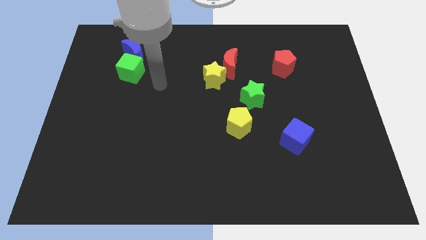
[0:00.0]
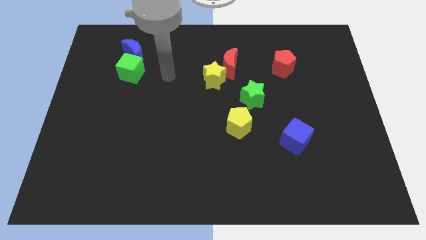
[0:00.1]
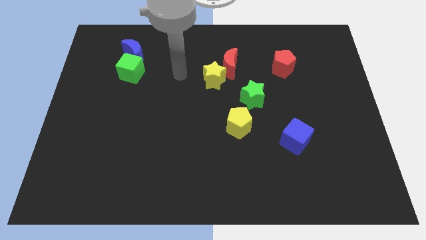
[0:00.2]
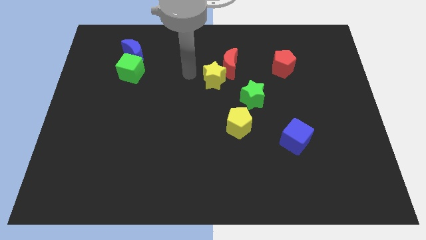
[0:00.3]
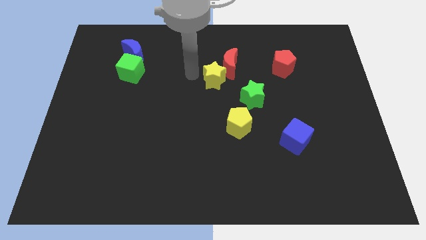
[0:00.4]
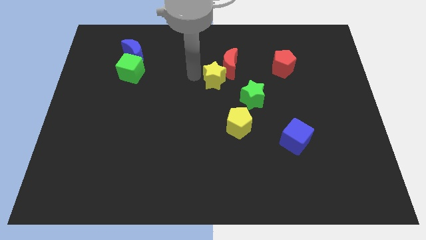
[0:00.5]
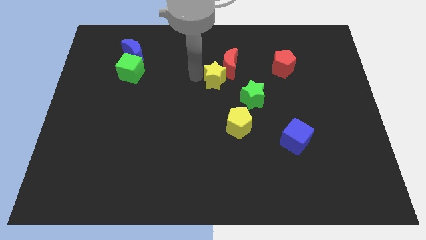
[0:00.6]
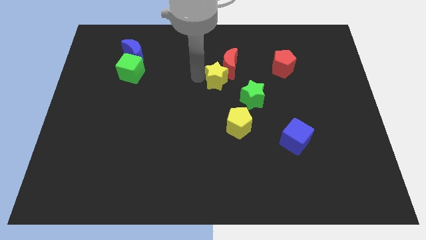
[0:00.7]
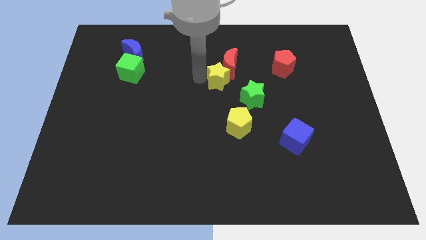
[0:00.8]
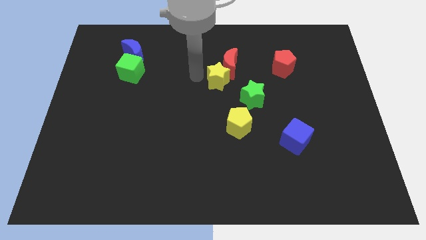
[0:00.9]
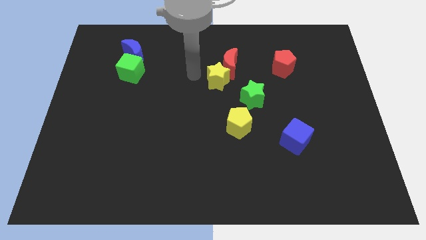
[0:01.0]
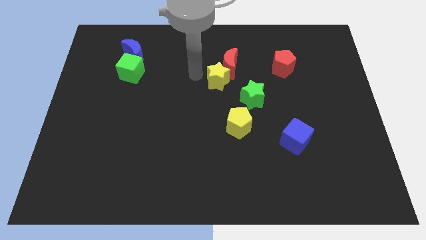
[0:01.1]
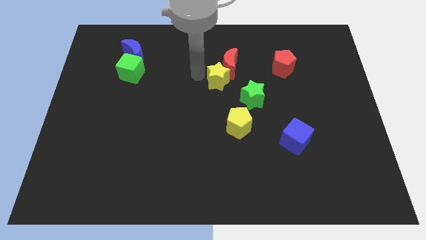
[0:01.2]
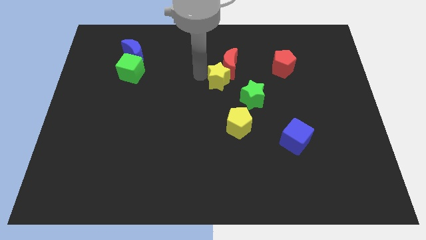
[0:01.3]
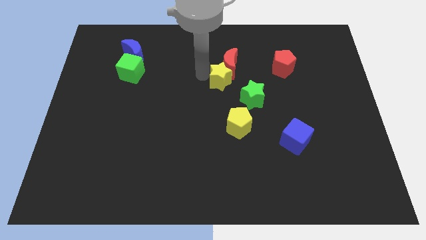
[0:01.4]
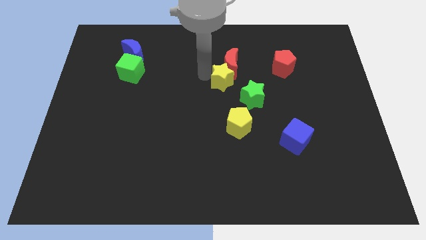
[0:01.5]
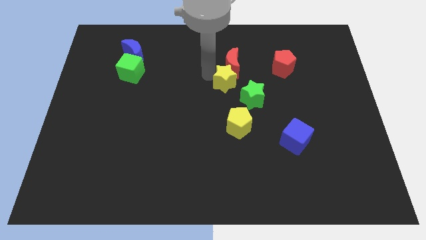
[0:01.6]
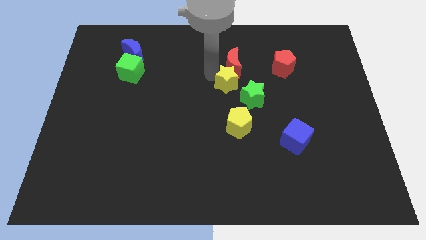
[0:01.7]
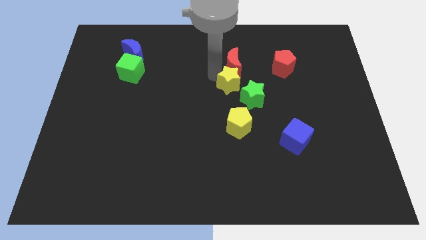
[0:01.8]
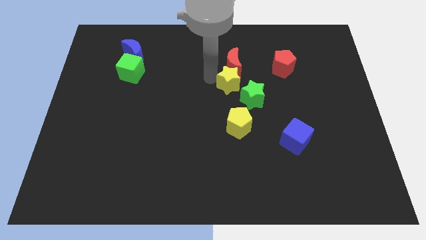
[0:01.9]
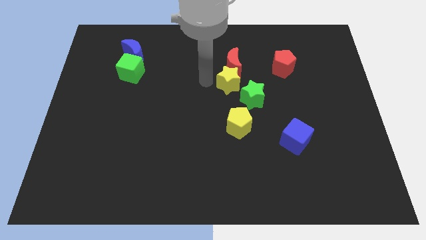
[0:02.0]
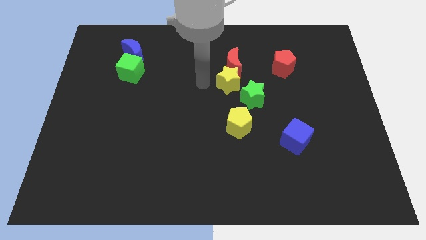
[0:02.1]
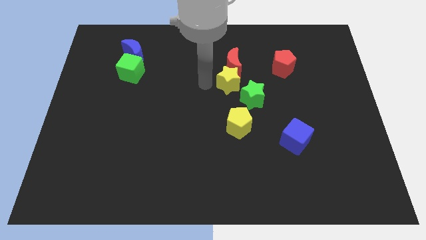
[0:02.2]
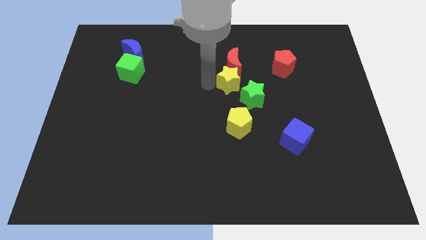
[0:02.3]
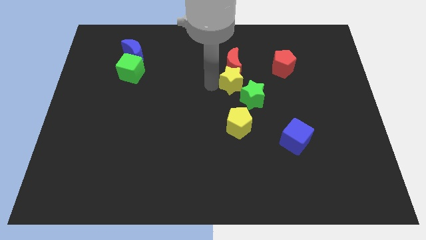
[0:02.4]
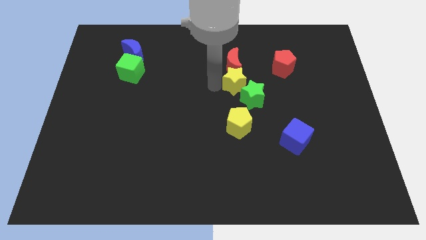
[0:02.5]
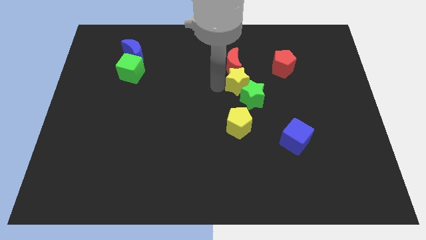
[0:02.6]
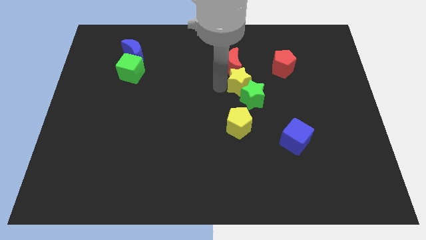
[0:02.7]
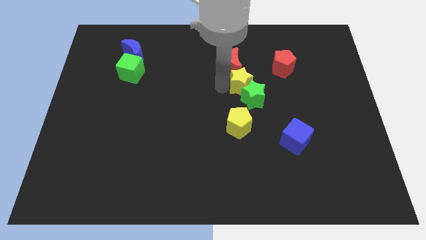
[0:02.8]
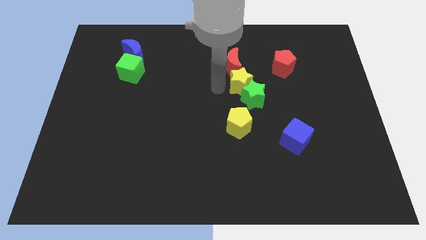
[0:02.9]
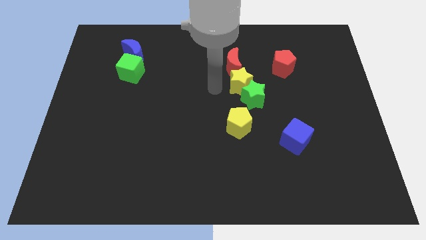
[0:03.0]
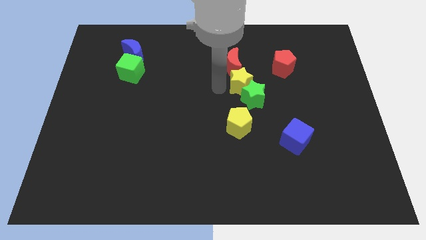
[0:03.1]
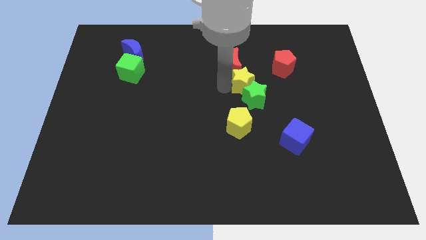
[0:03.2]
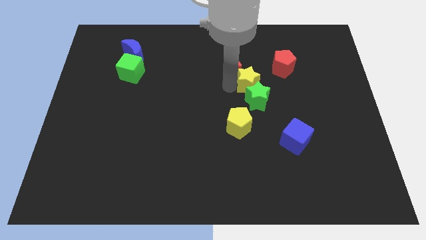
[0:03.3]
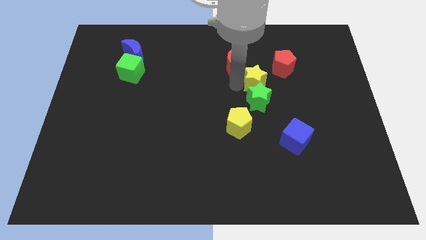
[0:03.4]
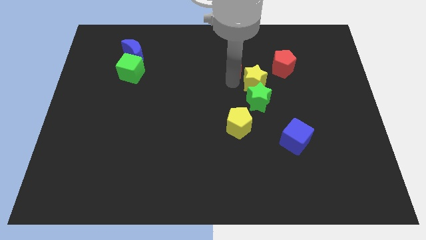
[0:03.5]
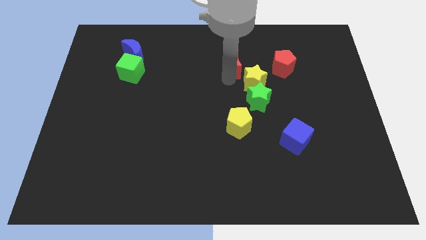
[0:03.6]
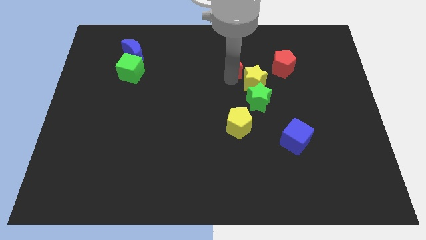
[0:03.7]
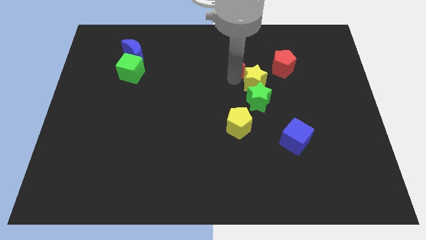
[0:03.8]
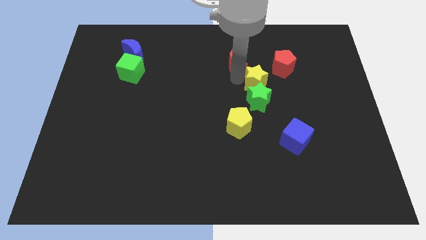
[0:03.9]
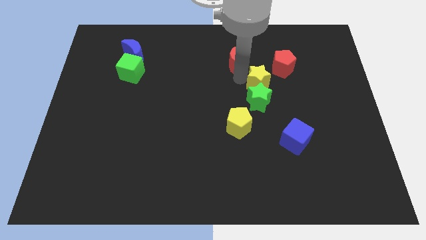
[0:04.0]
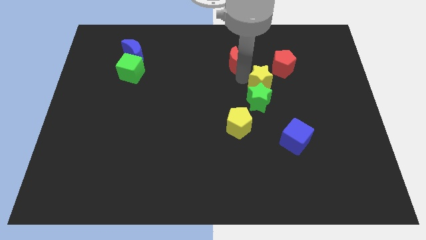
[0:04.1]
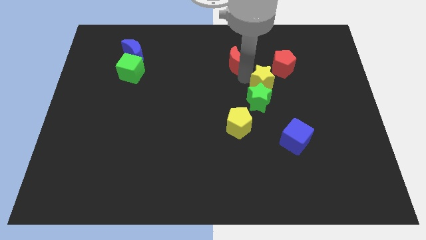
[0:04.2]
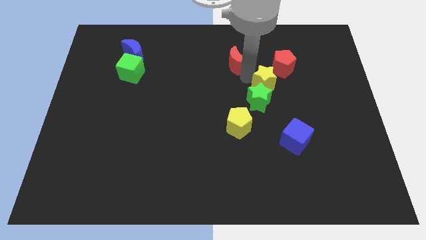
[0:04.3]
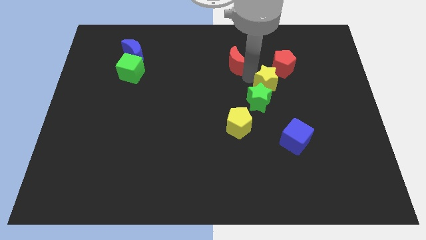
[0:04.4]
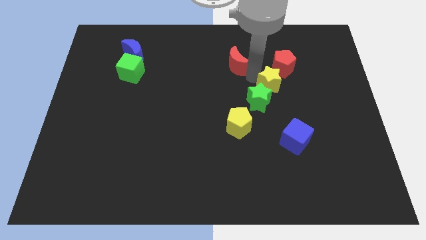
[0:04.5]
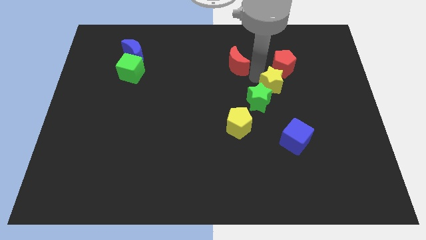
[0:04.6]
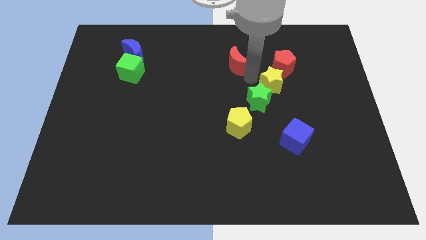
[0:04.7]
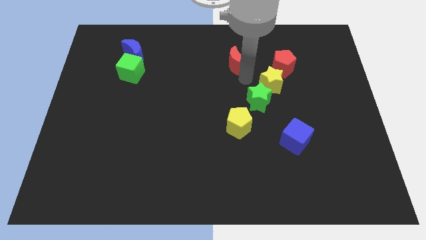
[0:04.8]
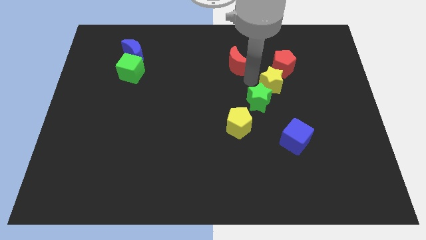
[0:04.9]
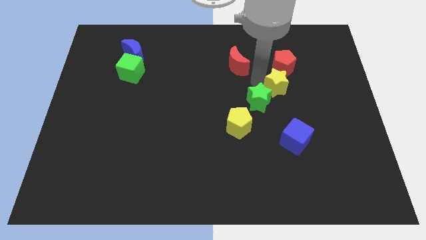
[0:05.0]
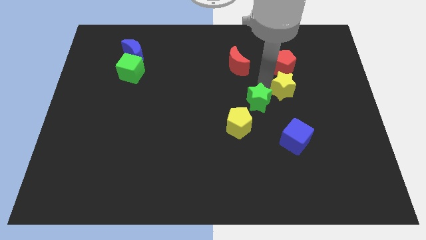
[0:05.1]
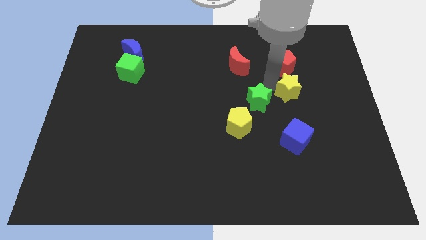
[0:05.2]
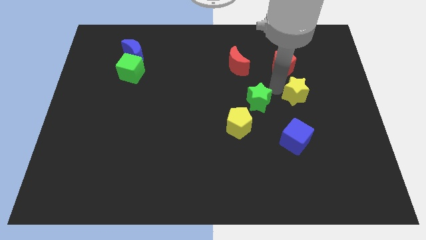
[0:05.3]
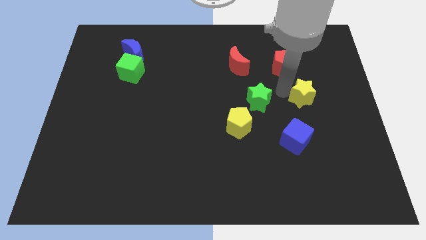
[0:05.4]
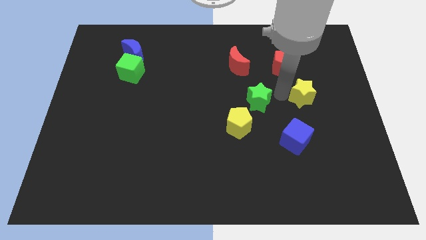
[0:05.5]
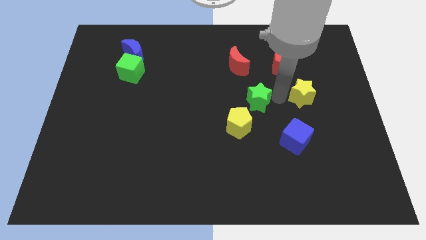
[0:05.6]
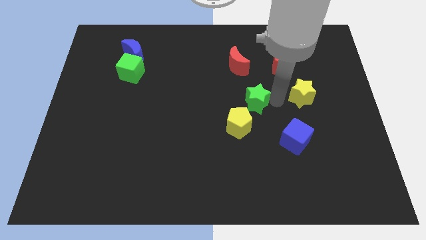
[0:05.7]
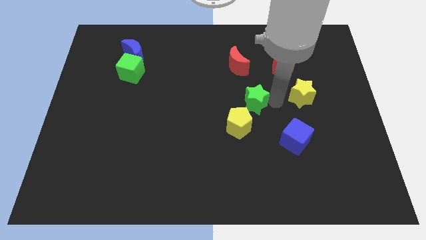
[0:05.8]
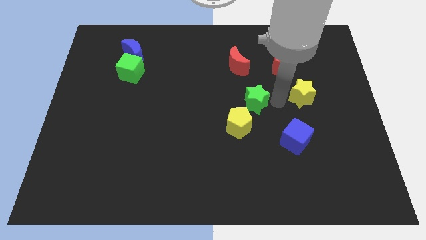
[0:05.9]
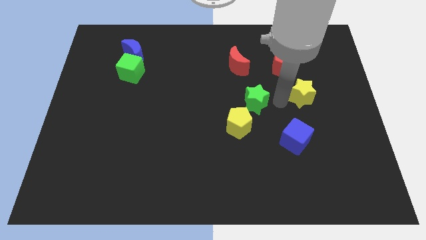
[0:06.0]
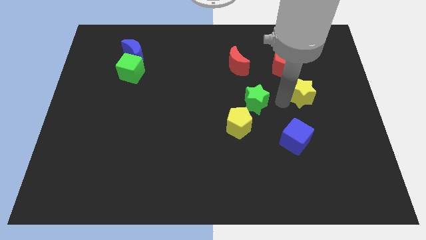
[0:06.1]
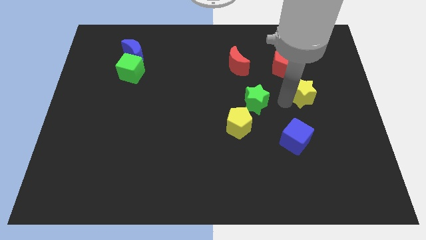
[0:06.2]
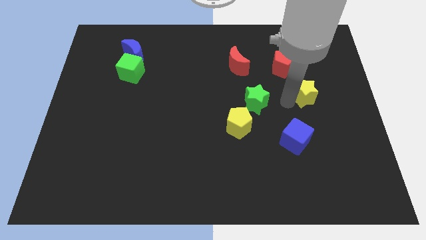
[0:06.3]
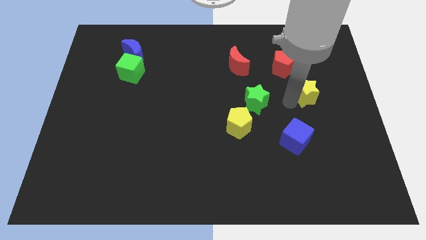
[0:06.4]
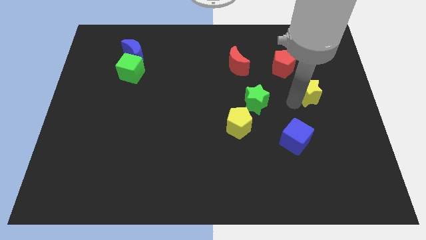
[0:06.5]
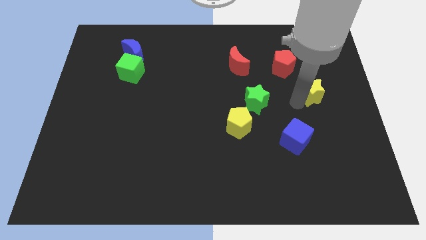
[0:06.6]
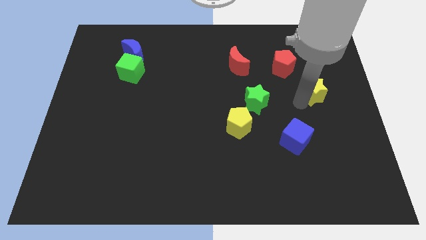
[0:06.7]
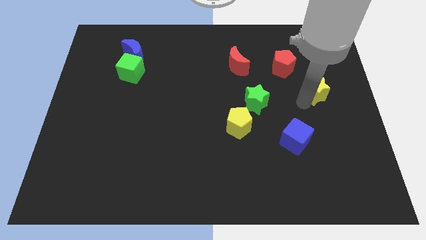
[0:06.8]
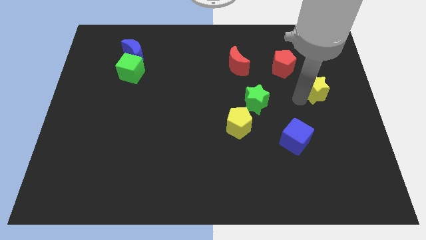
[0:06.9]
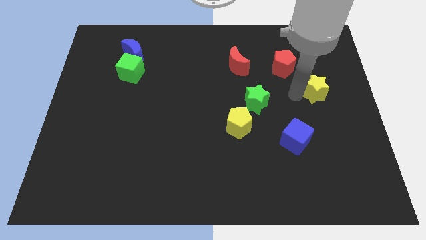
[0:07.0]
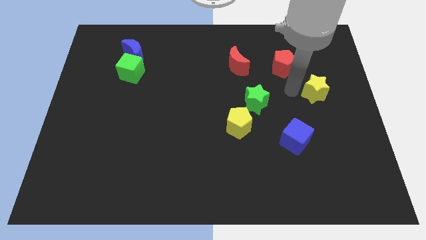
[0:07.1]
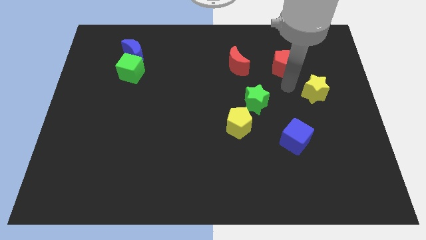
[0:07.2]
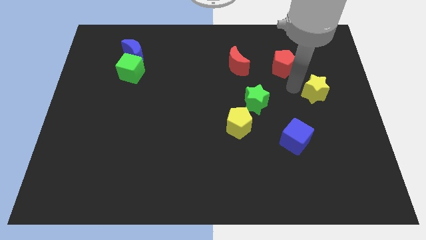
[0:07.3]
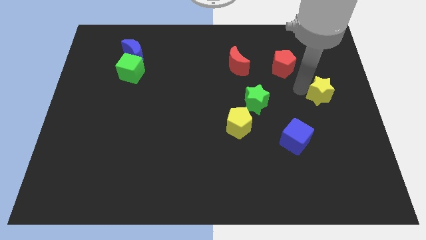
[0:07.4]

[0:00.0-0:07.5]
put the yellow star to the right side
